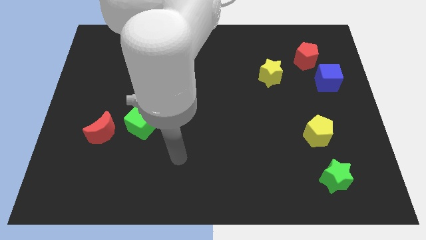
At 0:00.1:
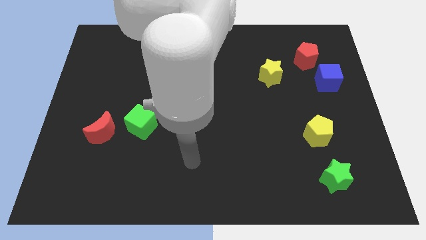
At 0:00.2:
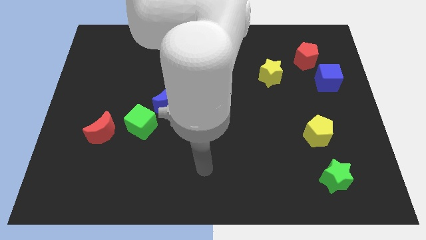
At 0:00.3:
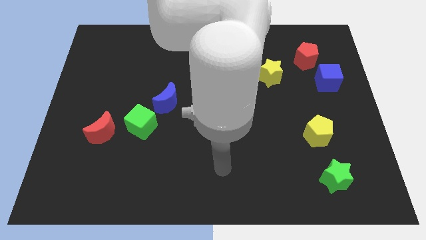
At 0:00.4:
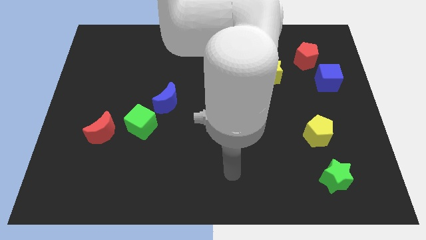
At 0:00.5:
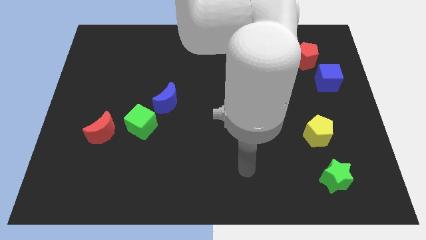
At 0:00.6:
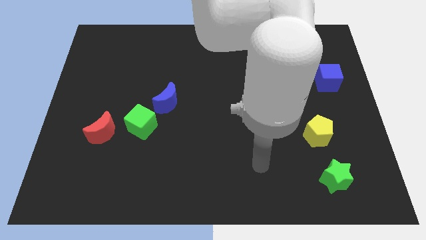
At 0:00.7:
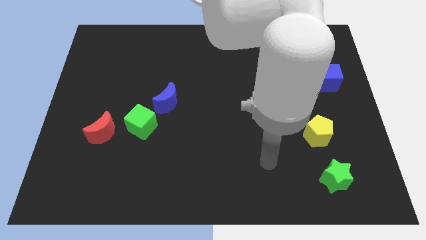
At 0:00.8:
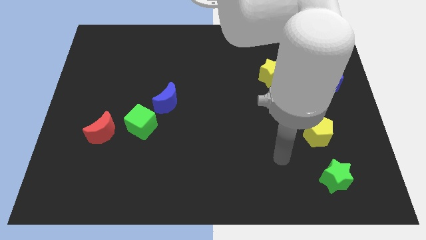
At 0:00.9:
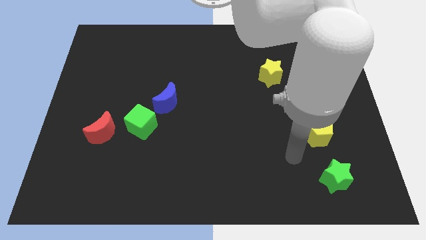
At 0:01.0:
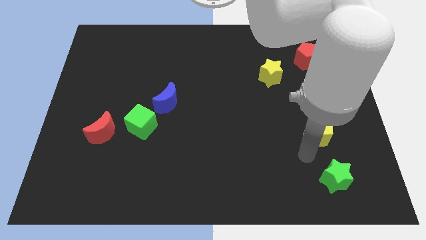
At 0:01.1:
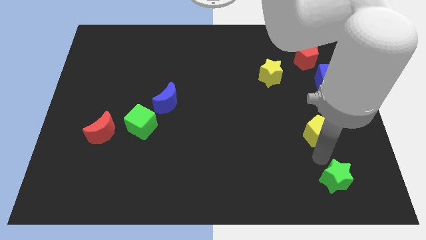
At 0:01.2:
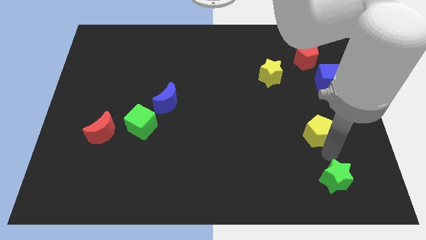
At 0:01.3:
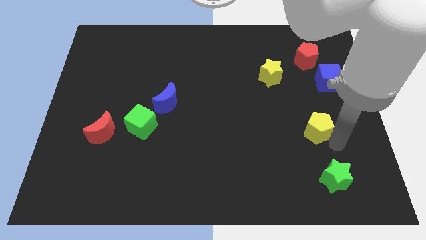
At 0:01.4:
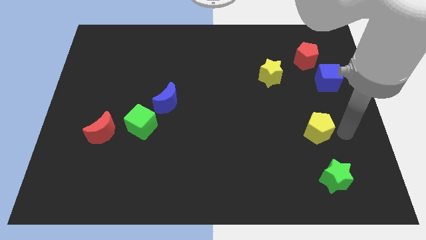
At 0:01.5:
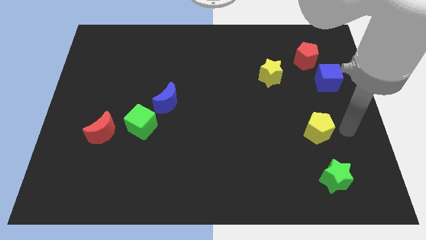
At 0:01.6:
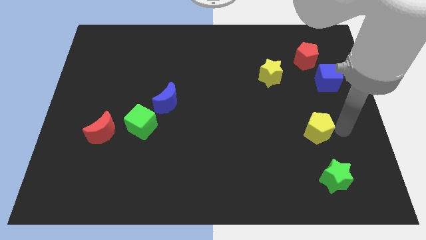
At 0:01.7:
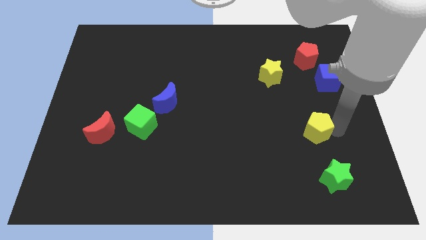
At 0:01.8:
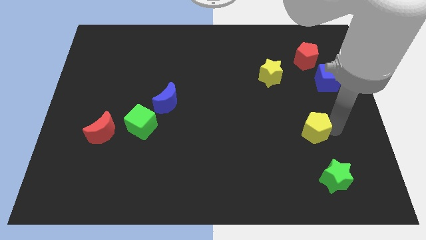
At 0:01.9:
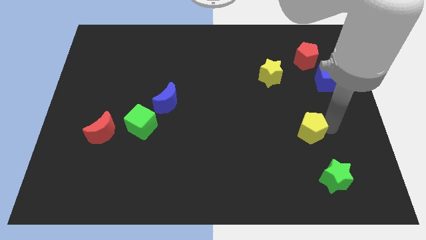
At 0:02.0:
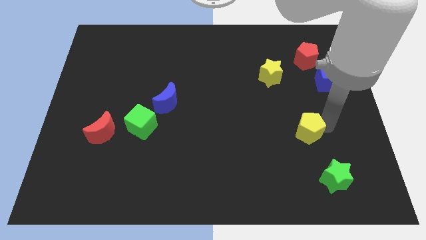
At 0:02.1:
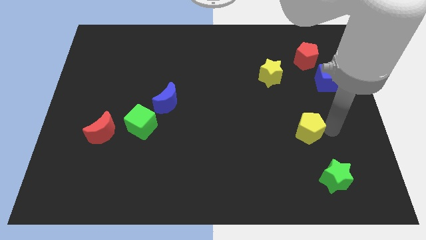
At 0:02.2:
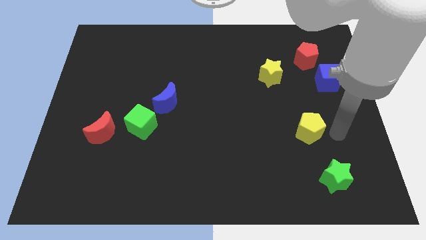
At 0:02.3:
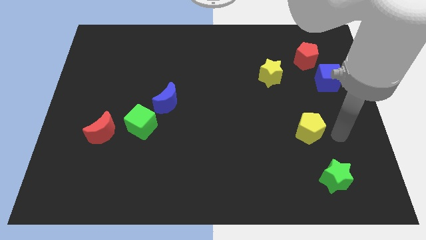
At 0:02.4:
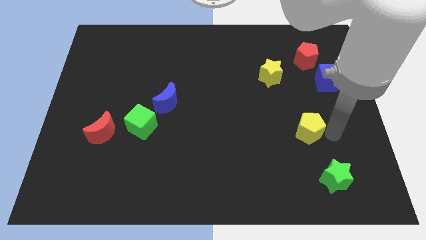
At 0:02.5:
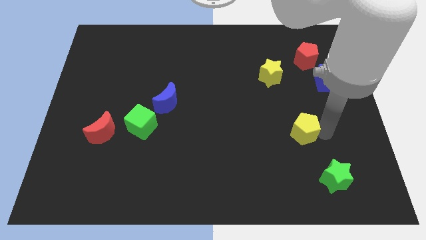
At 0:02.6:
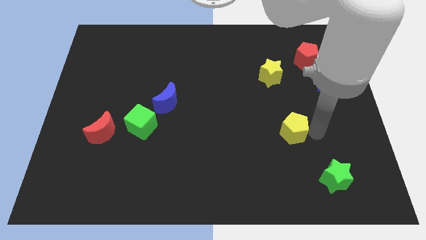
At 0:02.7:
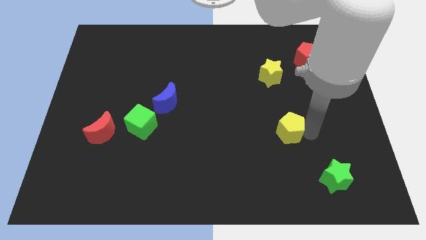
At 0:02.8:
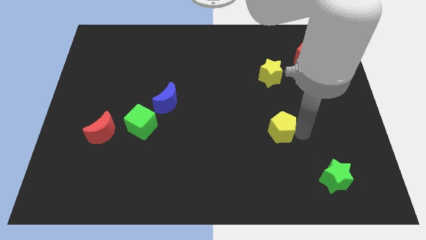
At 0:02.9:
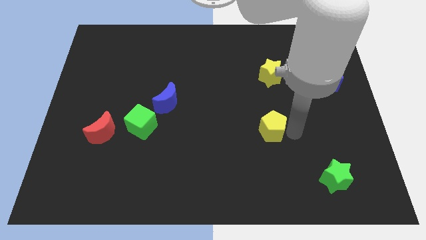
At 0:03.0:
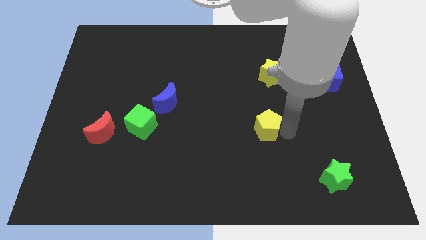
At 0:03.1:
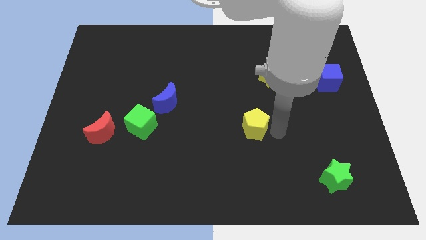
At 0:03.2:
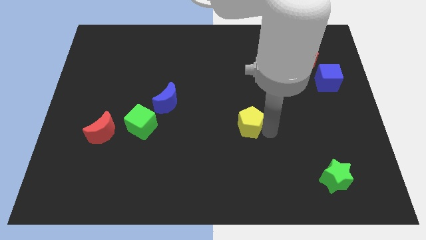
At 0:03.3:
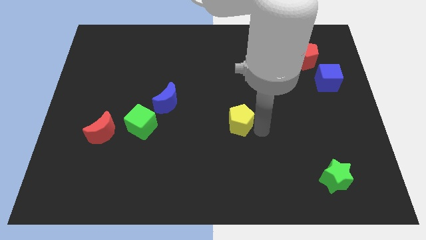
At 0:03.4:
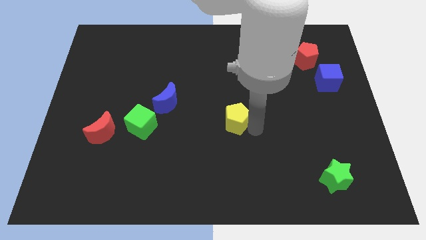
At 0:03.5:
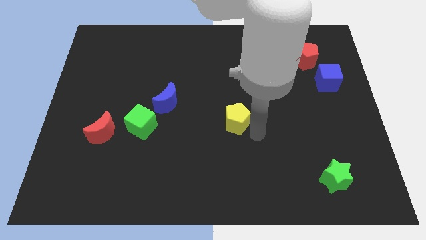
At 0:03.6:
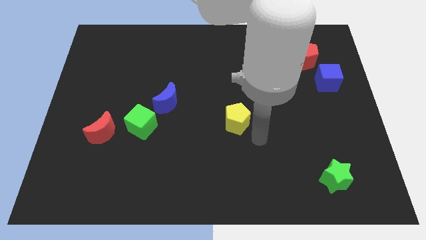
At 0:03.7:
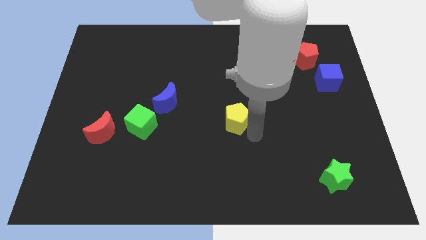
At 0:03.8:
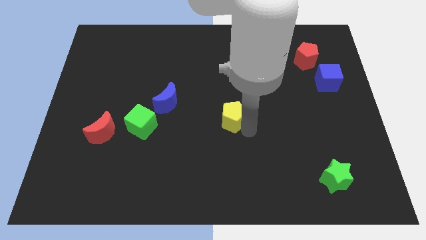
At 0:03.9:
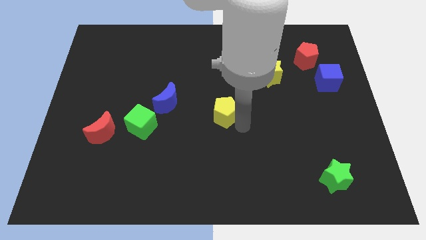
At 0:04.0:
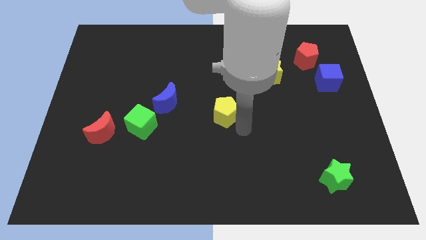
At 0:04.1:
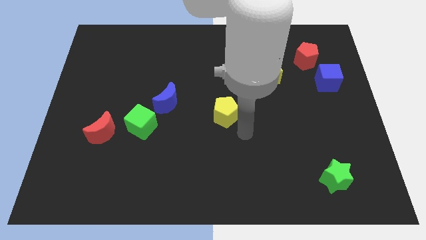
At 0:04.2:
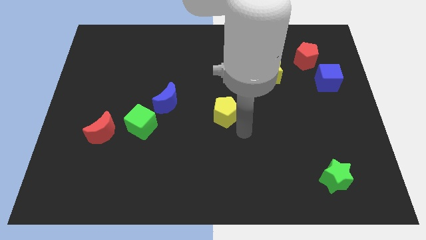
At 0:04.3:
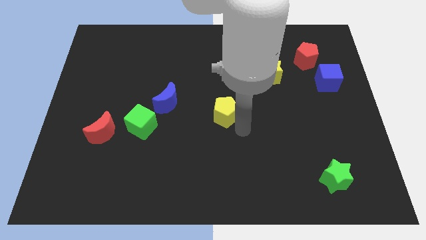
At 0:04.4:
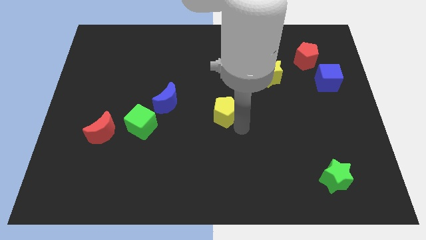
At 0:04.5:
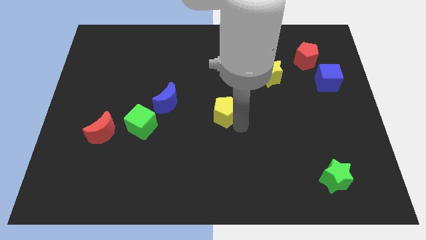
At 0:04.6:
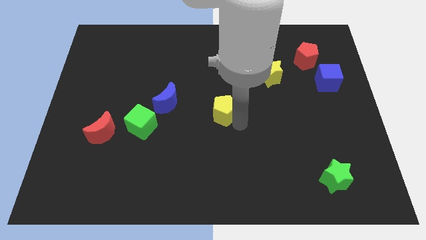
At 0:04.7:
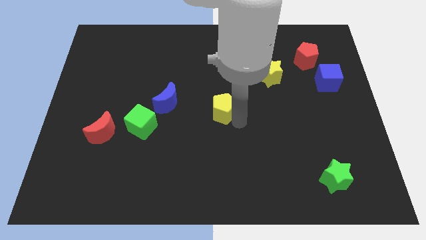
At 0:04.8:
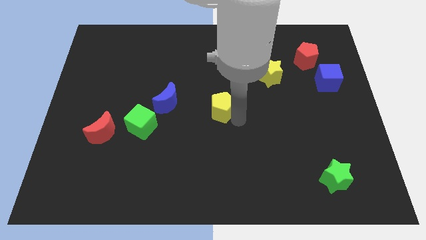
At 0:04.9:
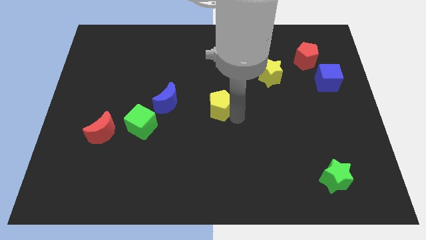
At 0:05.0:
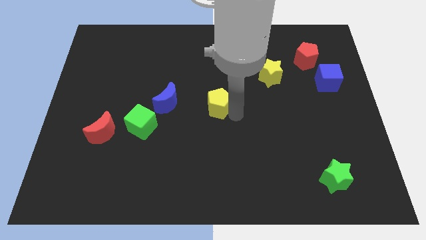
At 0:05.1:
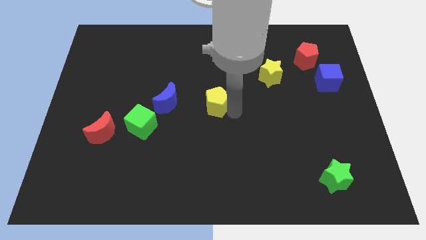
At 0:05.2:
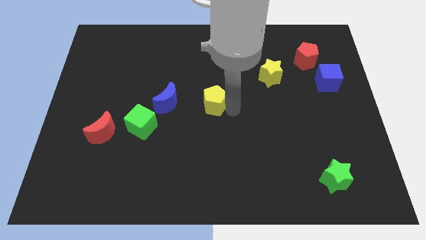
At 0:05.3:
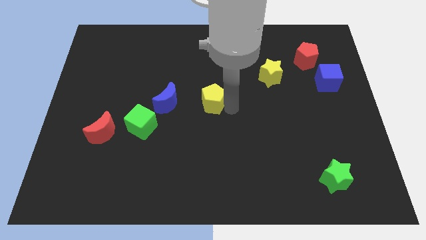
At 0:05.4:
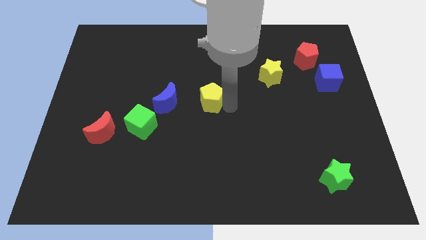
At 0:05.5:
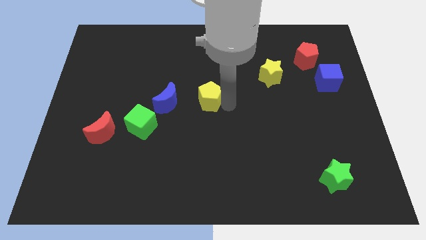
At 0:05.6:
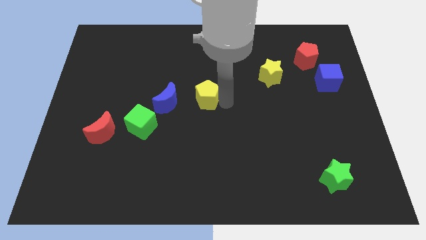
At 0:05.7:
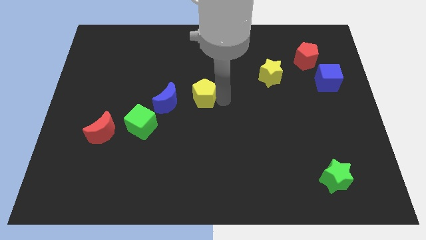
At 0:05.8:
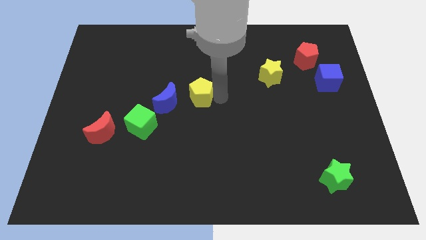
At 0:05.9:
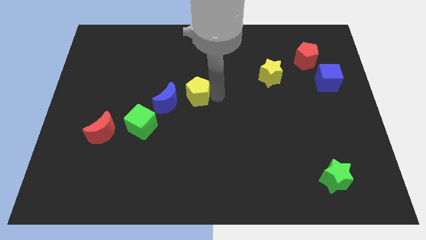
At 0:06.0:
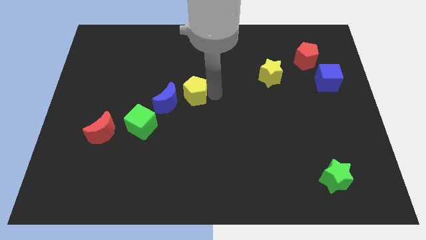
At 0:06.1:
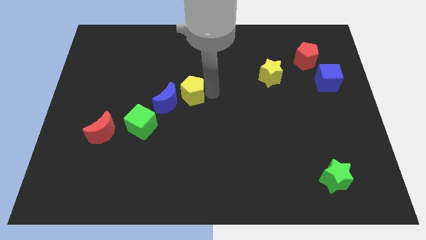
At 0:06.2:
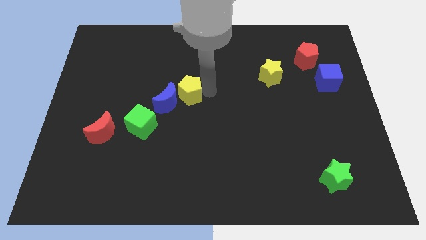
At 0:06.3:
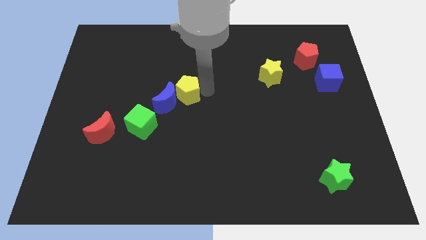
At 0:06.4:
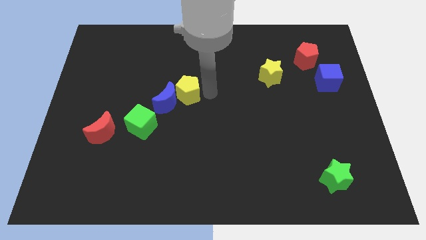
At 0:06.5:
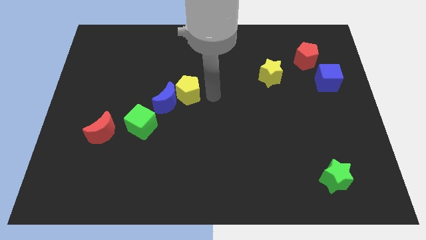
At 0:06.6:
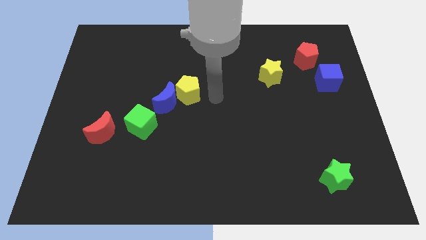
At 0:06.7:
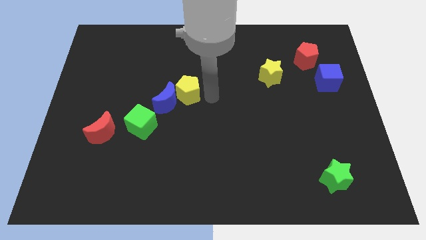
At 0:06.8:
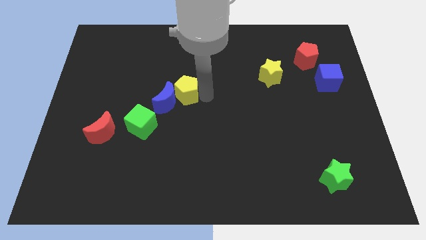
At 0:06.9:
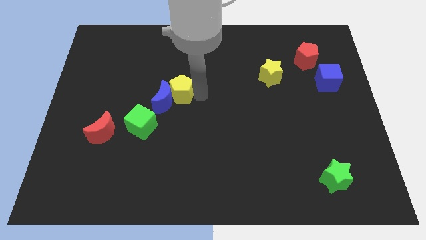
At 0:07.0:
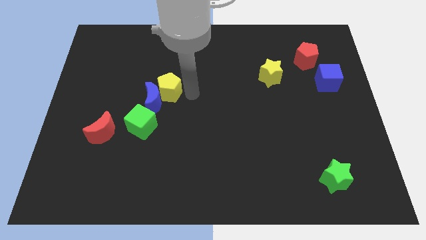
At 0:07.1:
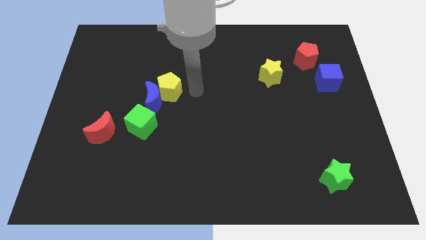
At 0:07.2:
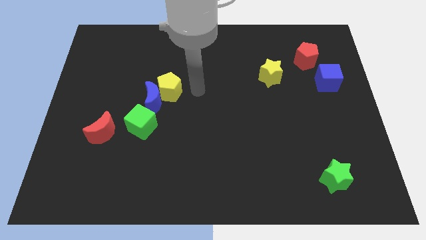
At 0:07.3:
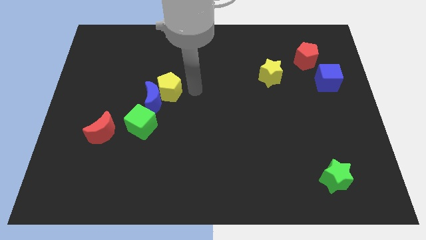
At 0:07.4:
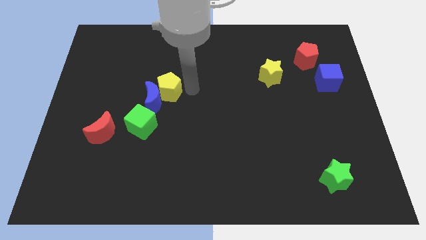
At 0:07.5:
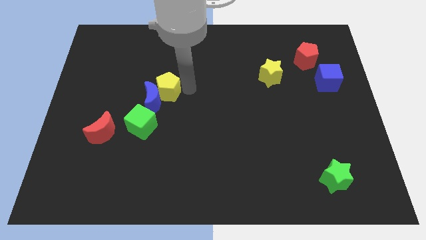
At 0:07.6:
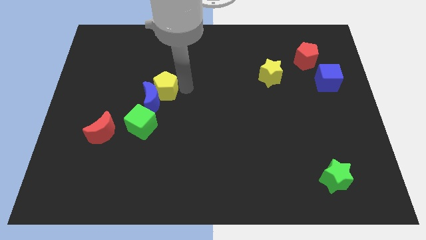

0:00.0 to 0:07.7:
slide the yellow pentagon to the top side of the green cube
